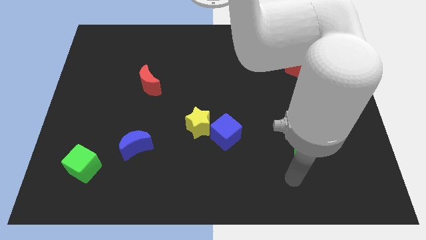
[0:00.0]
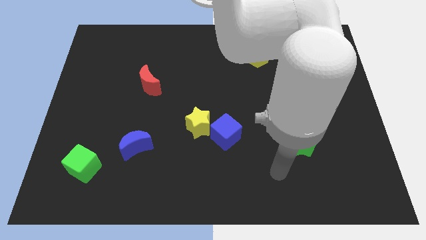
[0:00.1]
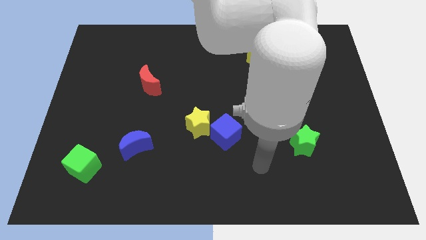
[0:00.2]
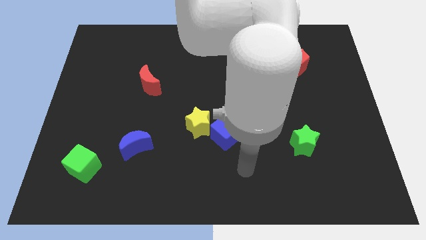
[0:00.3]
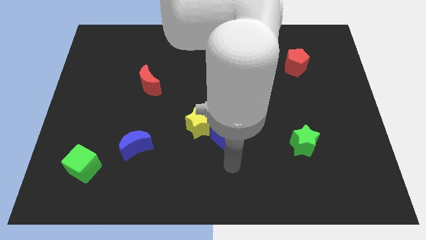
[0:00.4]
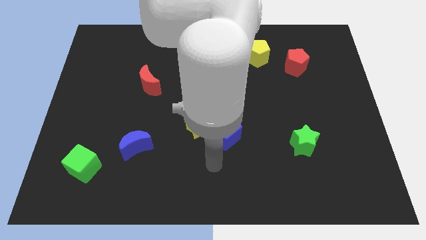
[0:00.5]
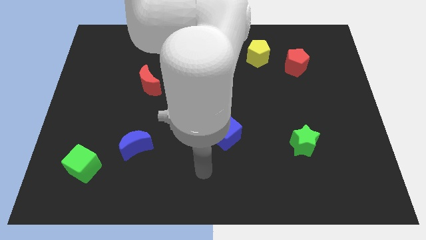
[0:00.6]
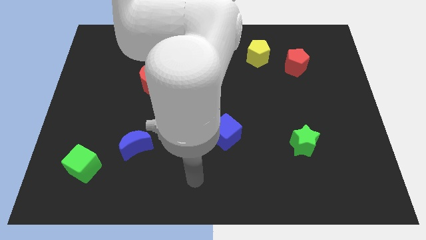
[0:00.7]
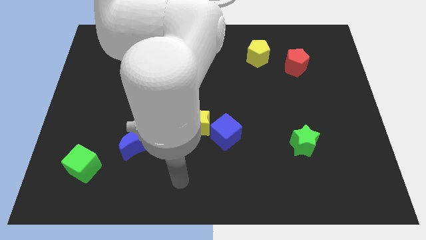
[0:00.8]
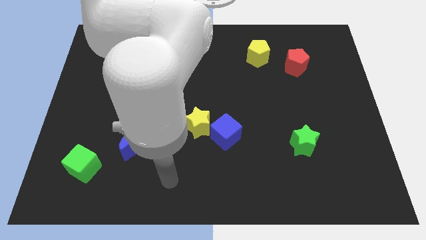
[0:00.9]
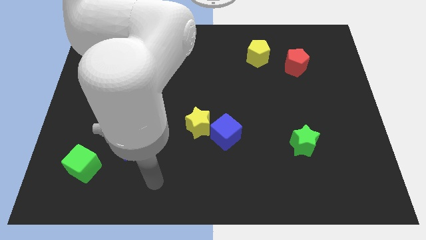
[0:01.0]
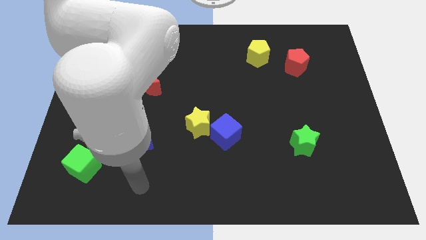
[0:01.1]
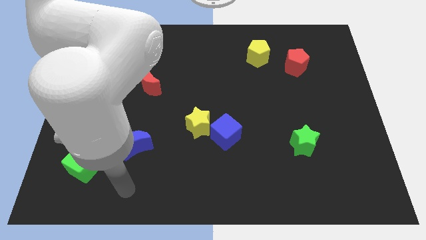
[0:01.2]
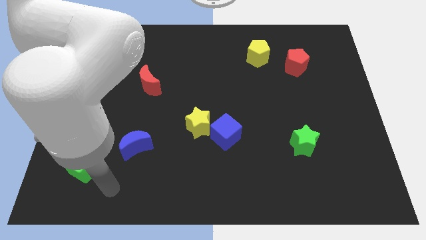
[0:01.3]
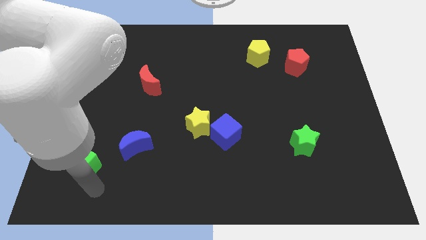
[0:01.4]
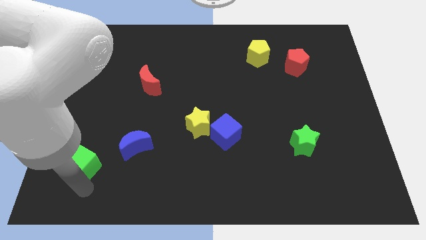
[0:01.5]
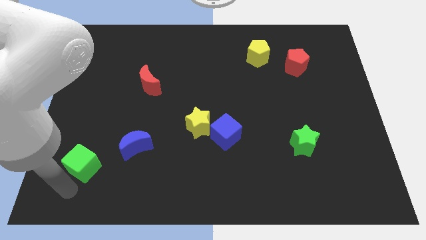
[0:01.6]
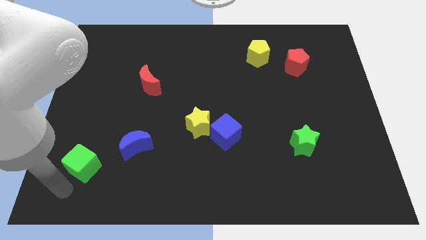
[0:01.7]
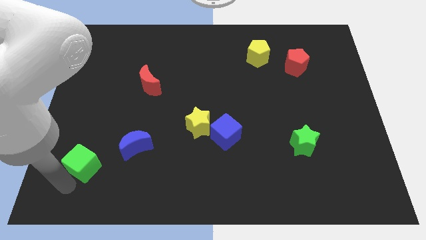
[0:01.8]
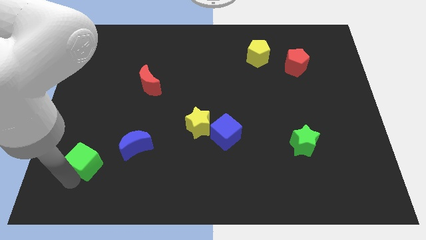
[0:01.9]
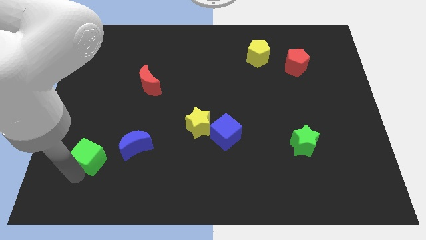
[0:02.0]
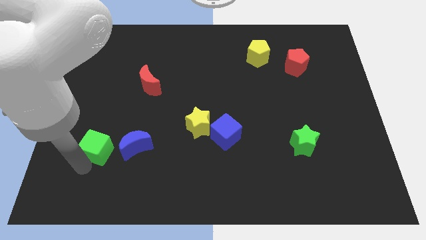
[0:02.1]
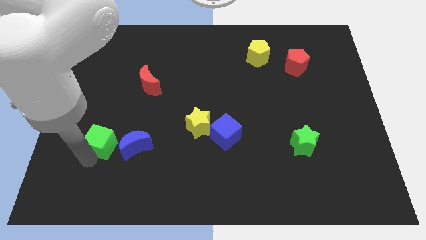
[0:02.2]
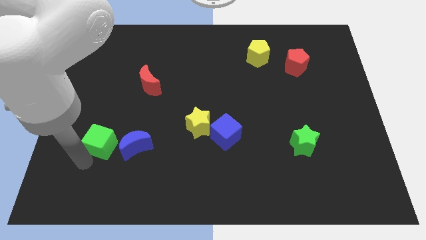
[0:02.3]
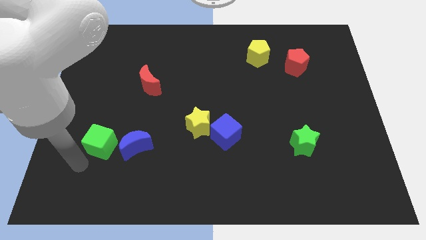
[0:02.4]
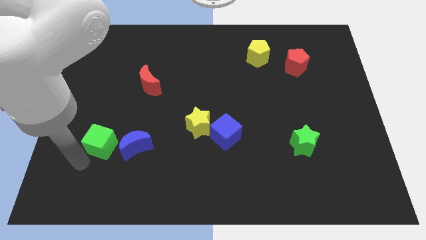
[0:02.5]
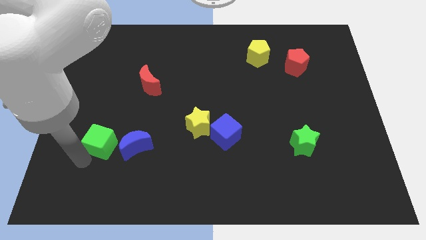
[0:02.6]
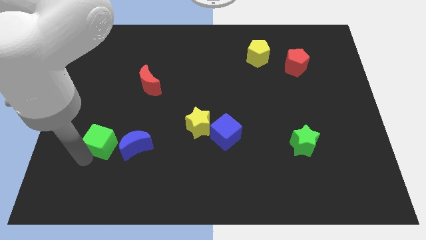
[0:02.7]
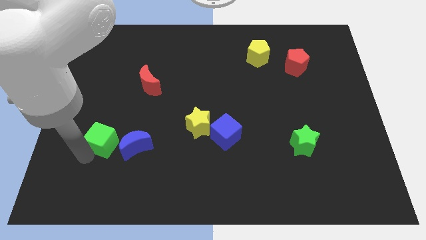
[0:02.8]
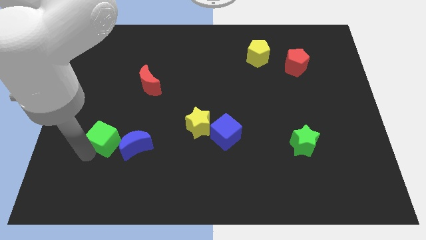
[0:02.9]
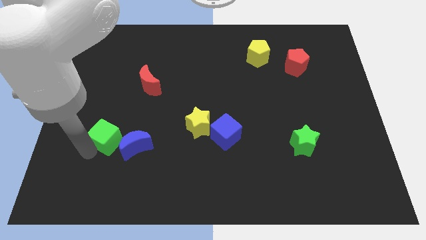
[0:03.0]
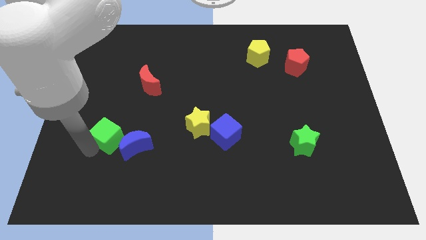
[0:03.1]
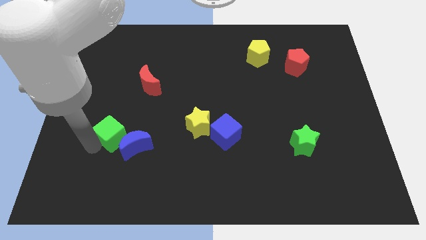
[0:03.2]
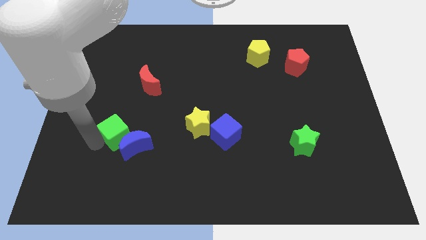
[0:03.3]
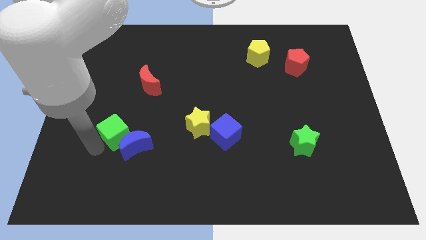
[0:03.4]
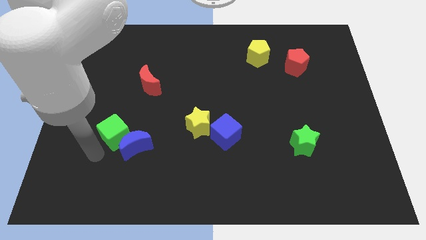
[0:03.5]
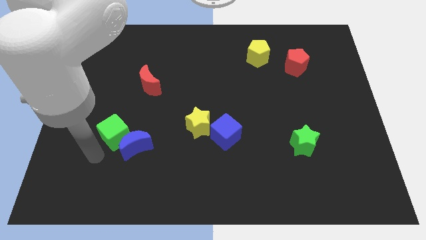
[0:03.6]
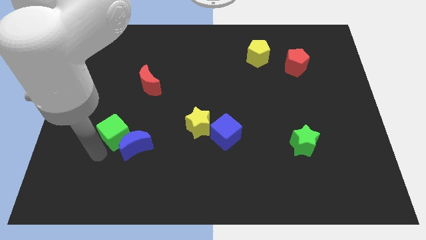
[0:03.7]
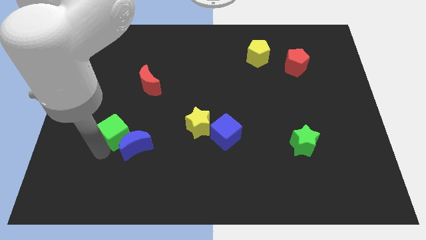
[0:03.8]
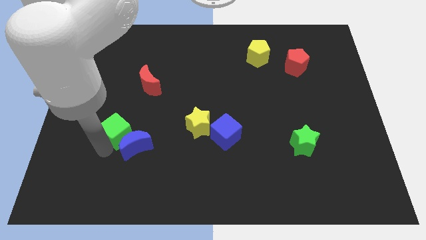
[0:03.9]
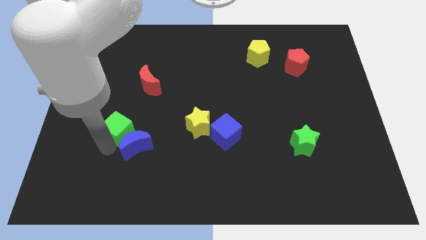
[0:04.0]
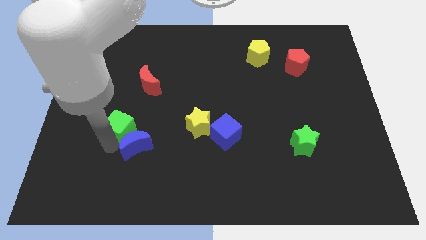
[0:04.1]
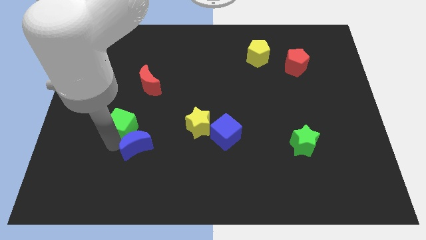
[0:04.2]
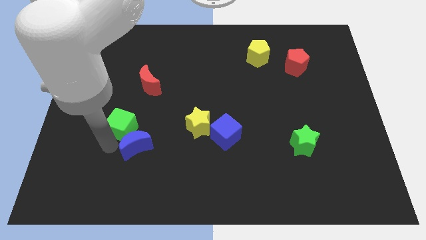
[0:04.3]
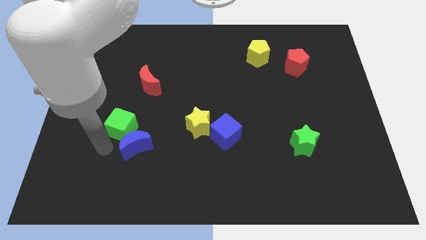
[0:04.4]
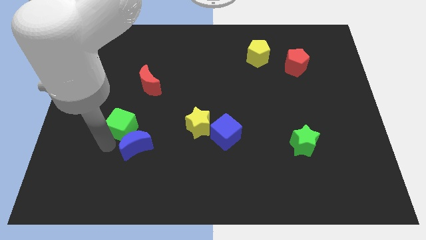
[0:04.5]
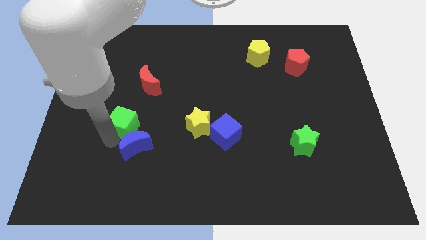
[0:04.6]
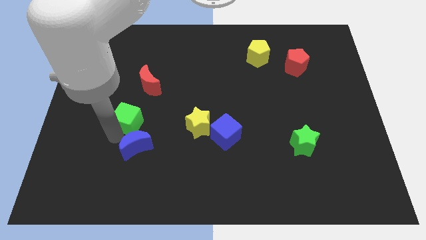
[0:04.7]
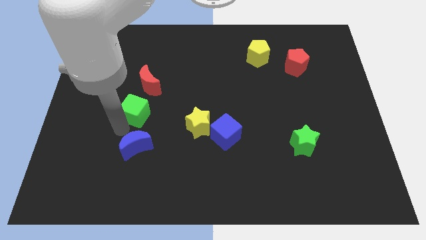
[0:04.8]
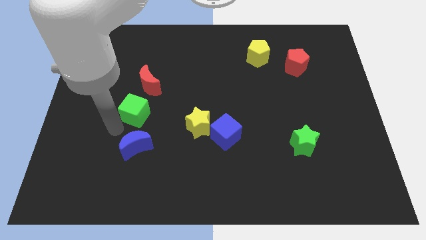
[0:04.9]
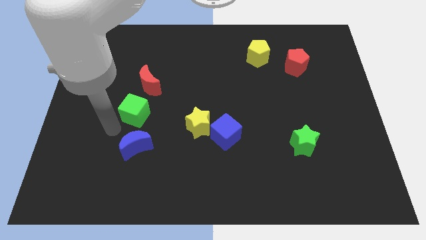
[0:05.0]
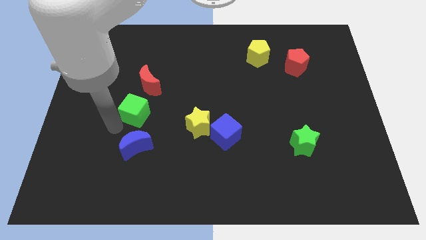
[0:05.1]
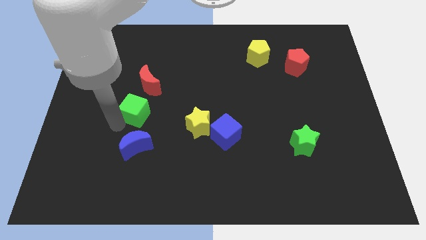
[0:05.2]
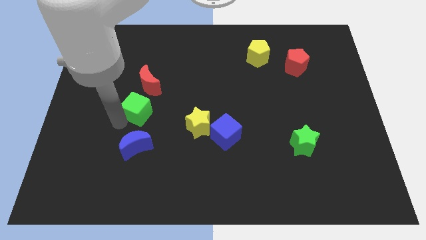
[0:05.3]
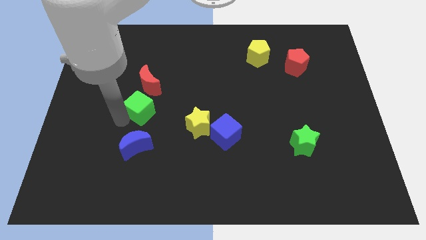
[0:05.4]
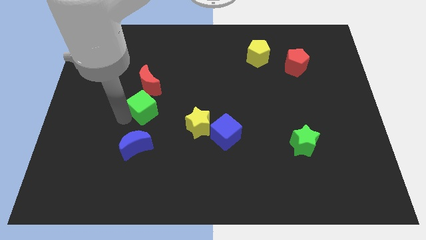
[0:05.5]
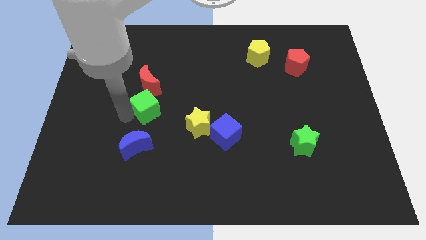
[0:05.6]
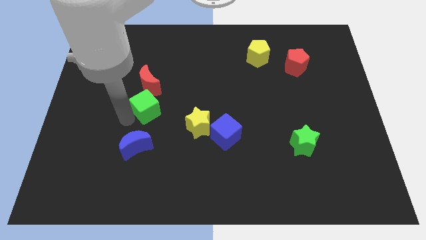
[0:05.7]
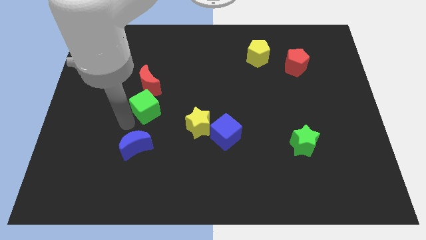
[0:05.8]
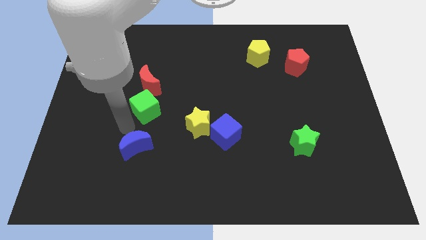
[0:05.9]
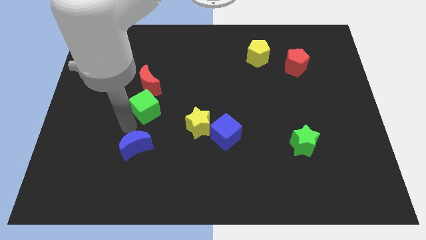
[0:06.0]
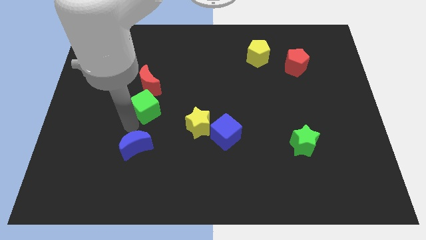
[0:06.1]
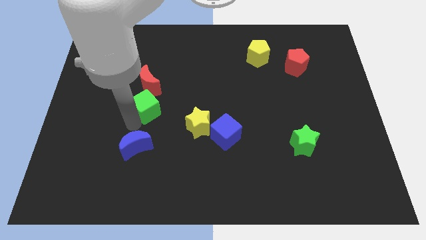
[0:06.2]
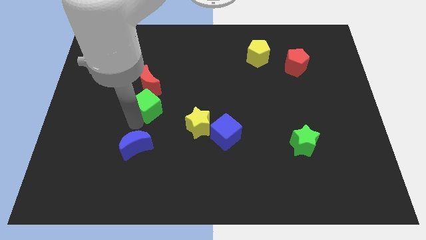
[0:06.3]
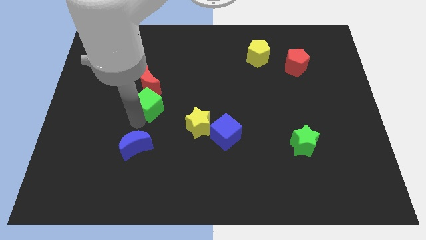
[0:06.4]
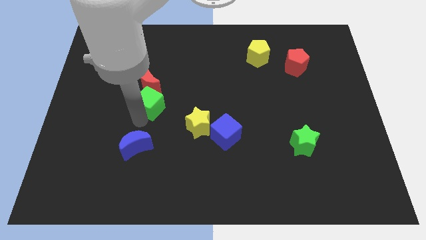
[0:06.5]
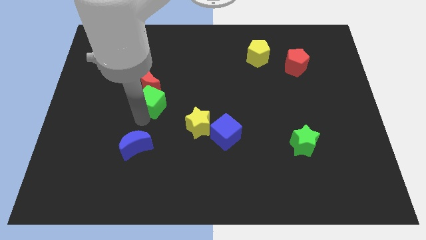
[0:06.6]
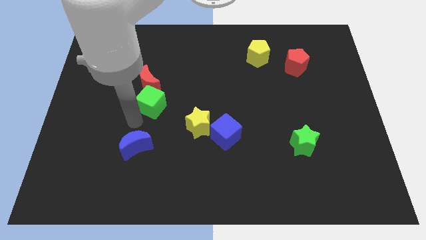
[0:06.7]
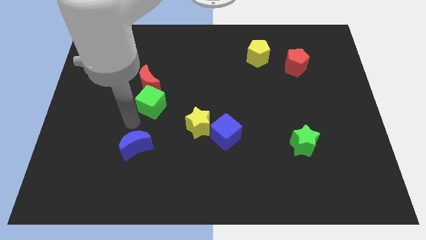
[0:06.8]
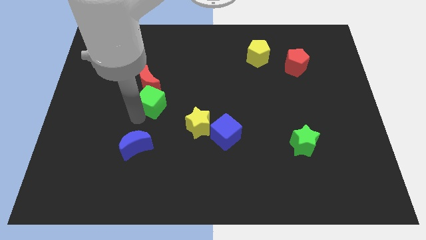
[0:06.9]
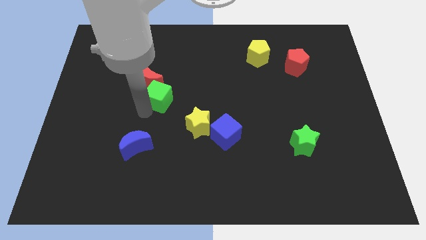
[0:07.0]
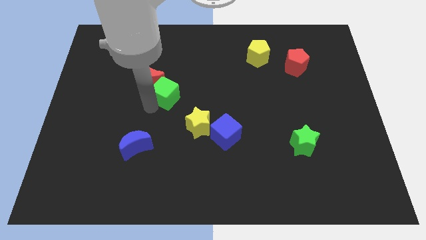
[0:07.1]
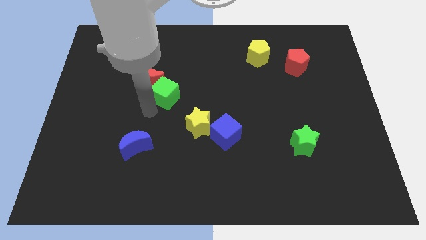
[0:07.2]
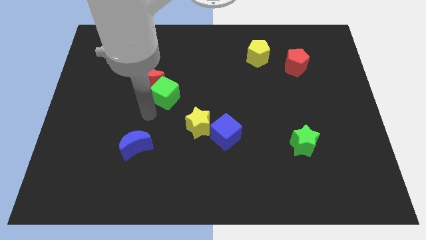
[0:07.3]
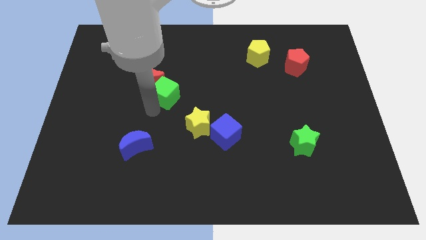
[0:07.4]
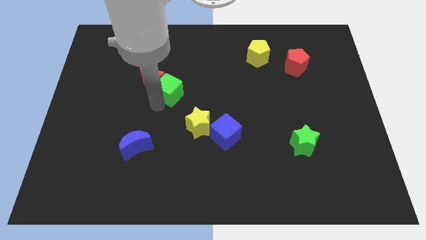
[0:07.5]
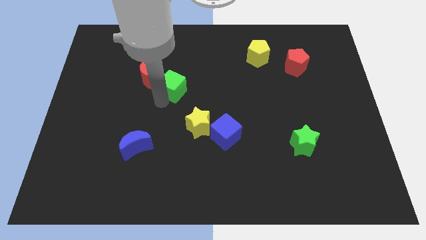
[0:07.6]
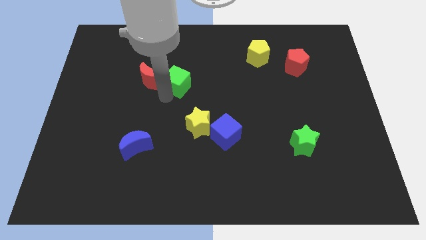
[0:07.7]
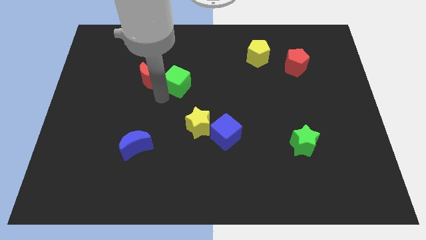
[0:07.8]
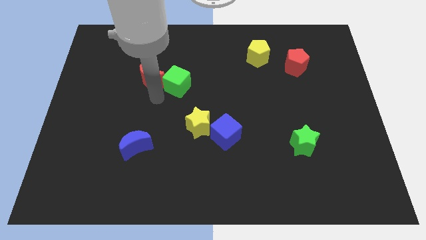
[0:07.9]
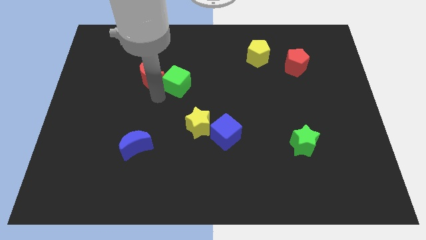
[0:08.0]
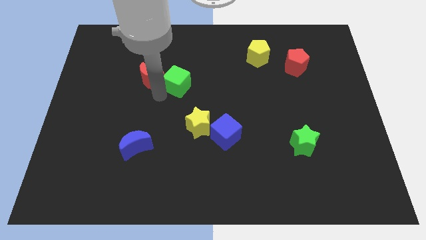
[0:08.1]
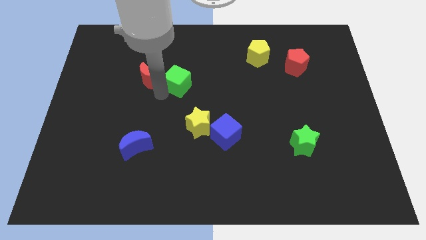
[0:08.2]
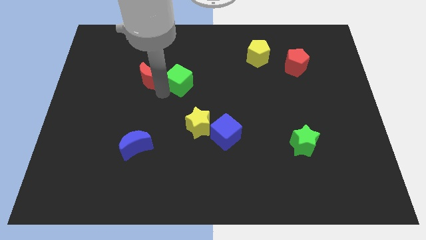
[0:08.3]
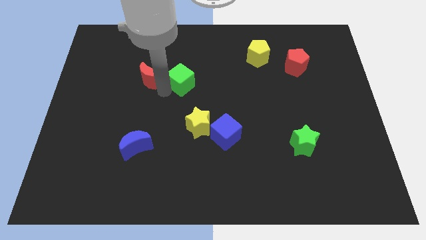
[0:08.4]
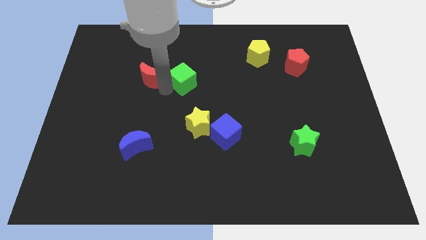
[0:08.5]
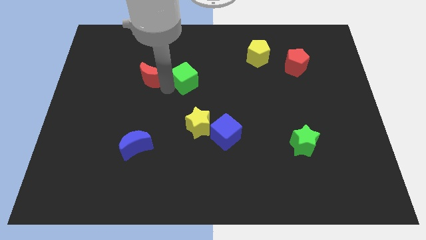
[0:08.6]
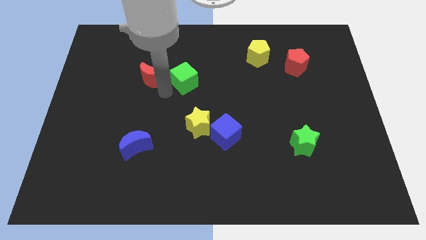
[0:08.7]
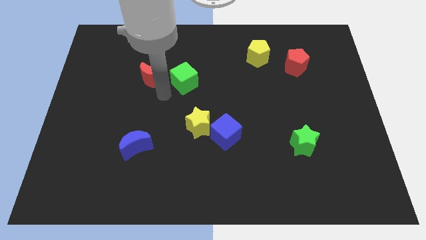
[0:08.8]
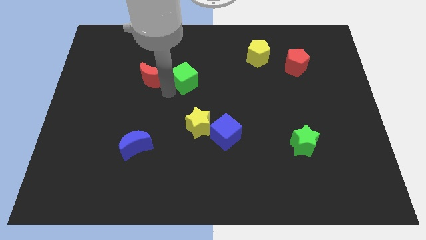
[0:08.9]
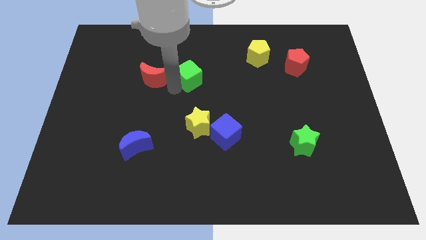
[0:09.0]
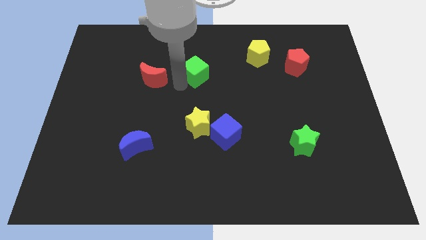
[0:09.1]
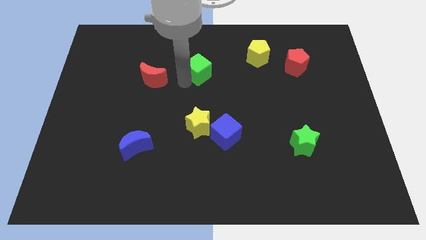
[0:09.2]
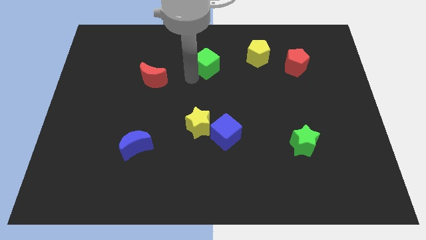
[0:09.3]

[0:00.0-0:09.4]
push the green cube just left of the yellow pentagon
